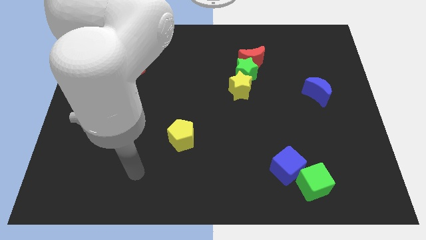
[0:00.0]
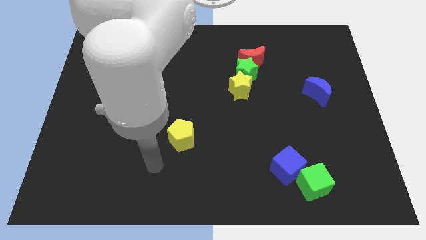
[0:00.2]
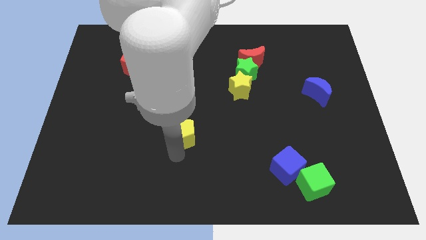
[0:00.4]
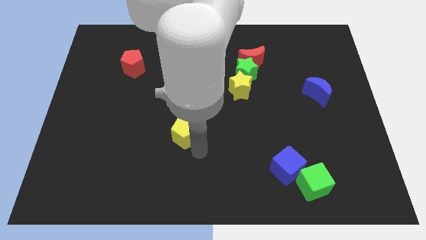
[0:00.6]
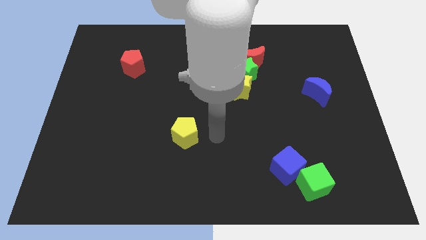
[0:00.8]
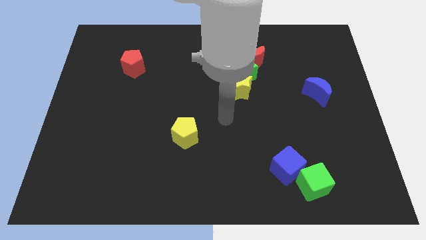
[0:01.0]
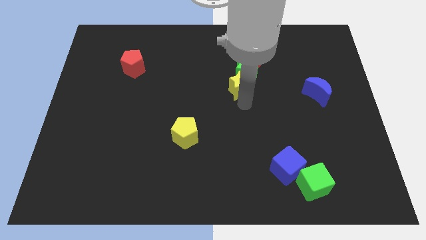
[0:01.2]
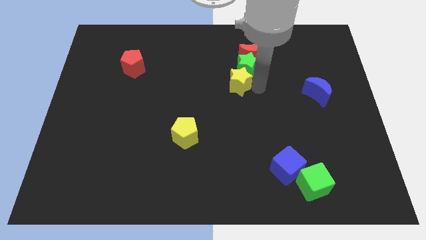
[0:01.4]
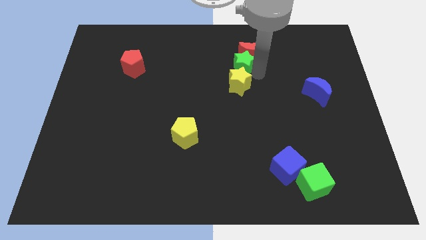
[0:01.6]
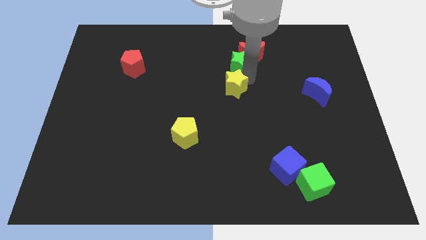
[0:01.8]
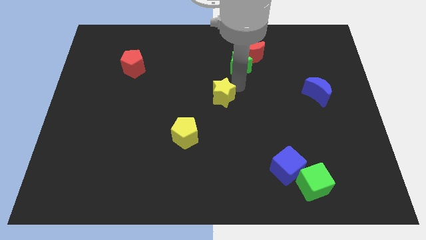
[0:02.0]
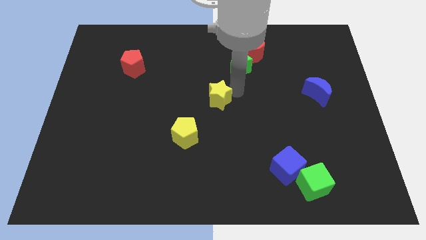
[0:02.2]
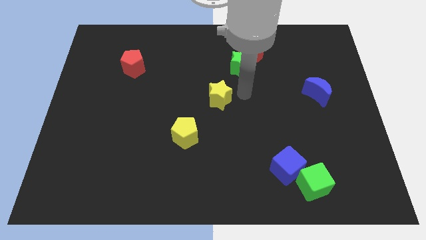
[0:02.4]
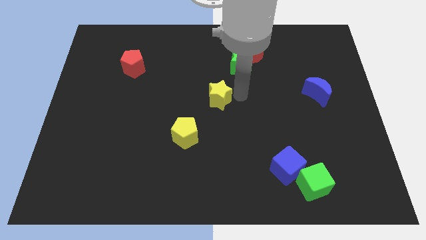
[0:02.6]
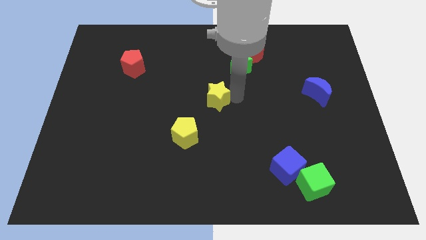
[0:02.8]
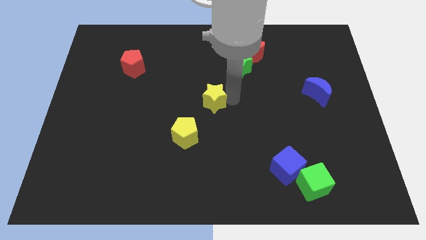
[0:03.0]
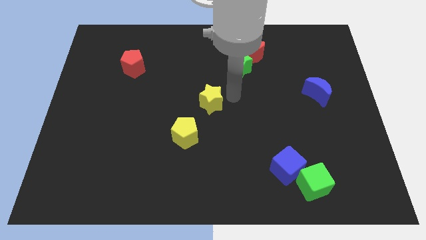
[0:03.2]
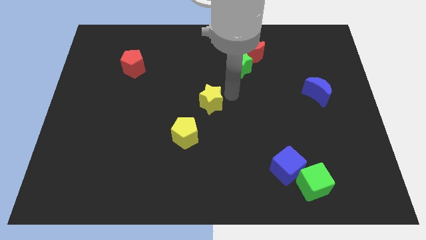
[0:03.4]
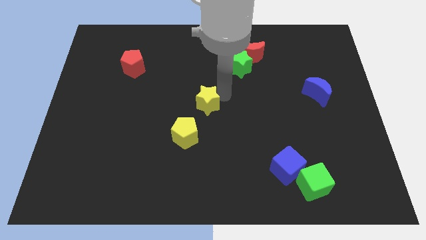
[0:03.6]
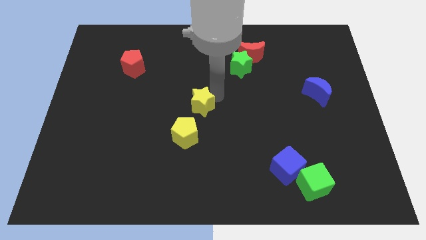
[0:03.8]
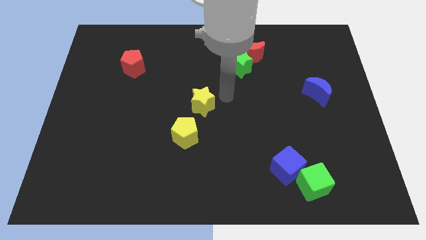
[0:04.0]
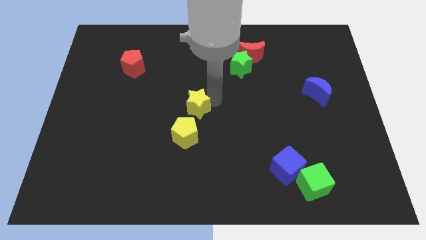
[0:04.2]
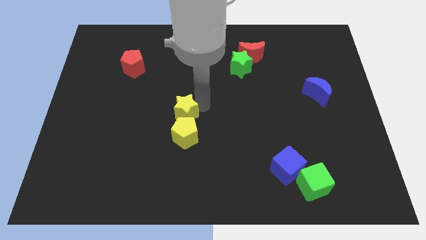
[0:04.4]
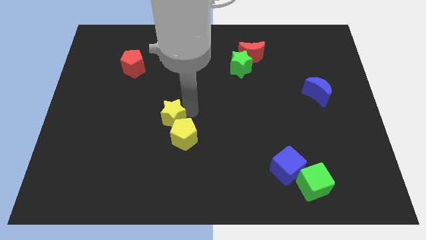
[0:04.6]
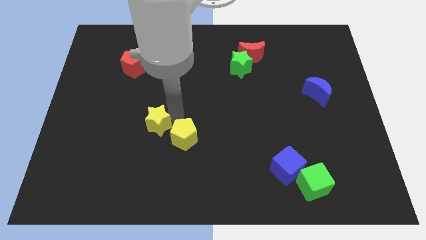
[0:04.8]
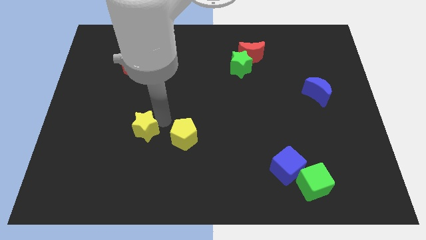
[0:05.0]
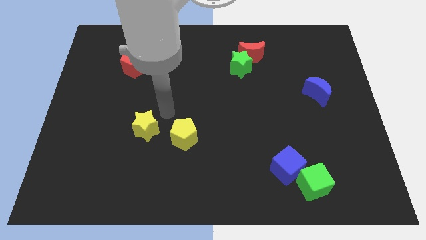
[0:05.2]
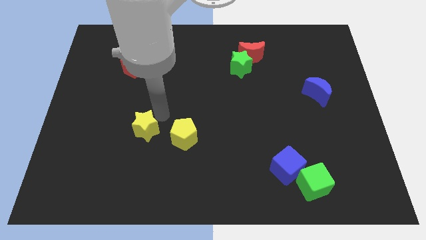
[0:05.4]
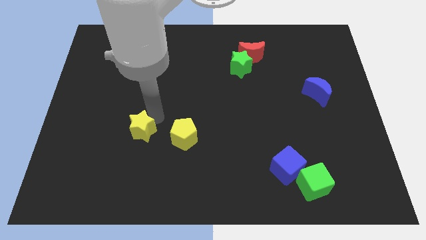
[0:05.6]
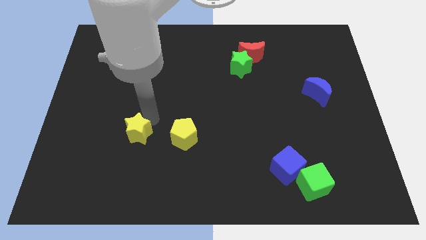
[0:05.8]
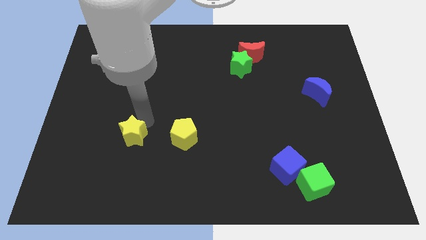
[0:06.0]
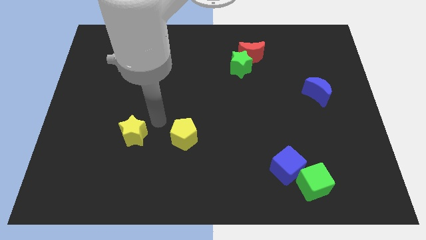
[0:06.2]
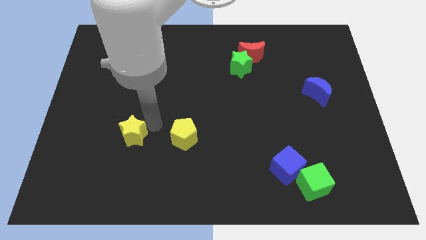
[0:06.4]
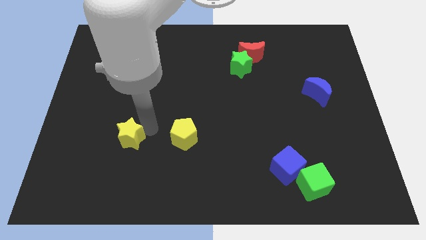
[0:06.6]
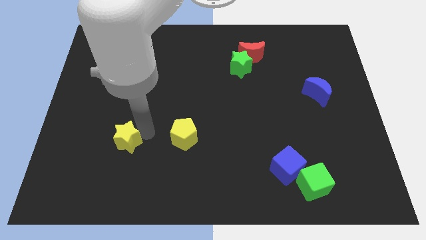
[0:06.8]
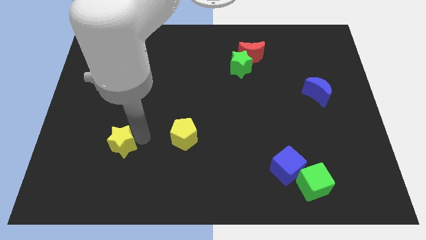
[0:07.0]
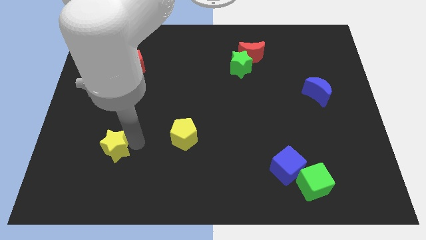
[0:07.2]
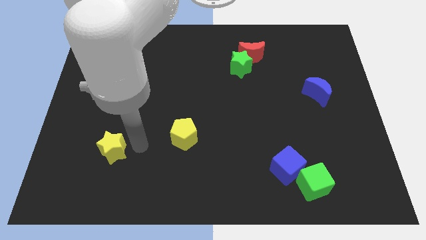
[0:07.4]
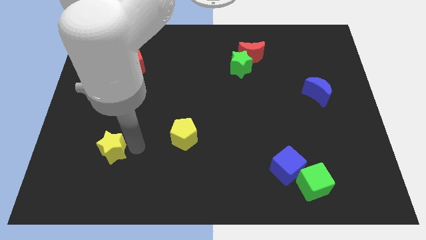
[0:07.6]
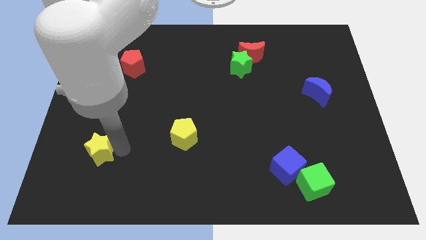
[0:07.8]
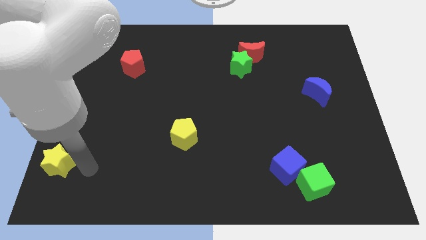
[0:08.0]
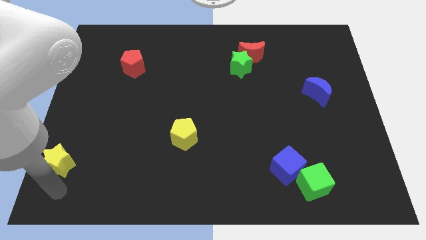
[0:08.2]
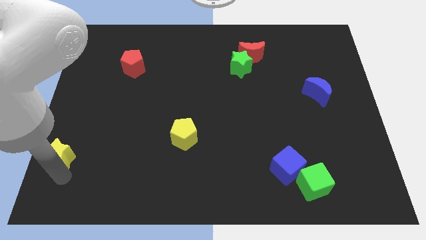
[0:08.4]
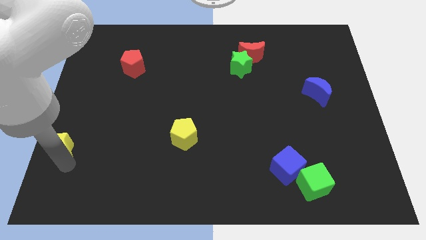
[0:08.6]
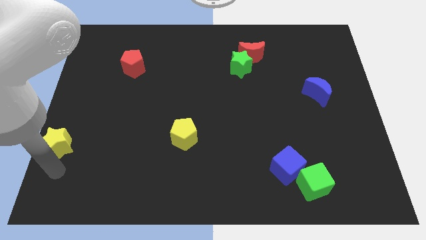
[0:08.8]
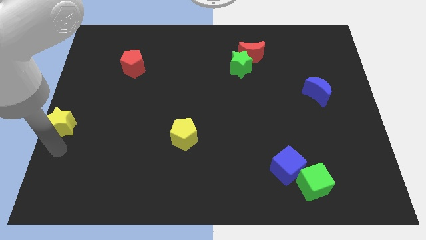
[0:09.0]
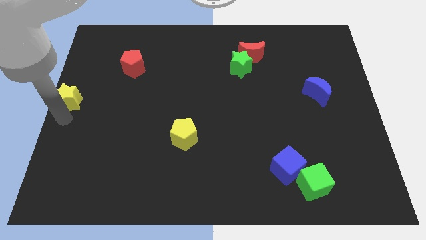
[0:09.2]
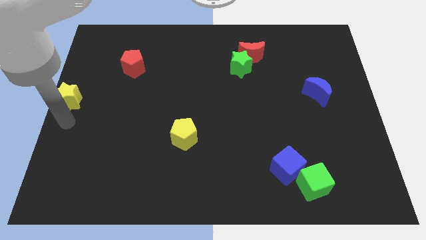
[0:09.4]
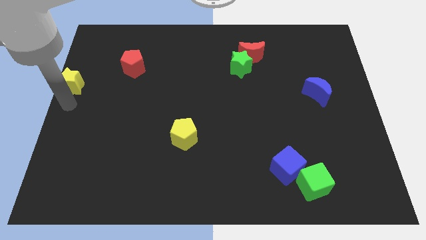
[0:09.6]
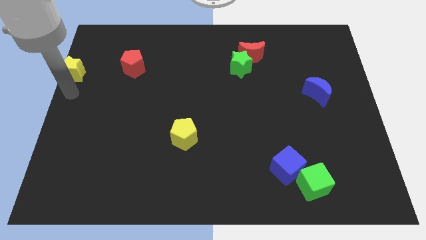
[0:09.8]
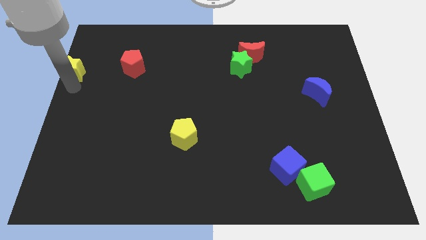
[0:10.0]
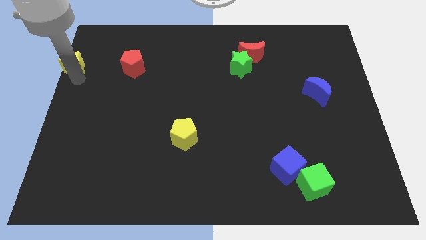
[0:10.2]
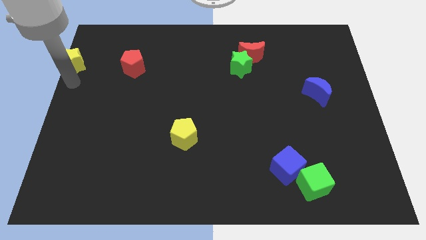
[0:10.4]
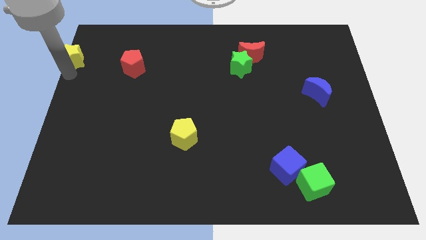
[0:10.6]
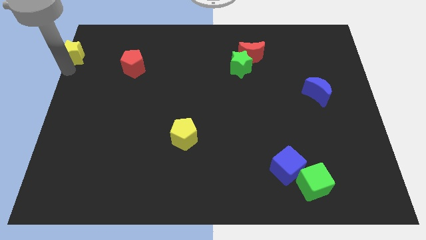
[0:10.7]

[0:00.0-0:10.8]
put the yellow star to the top left of the board
